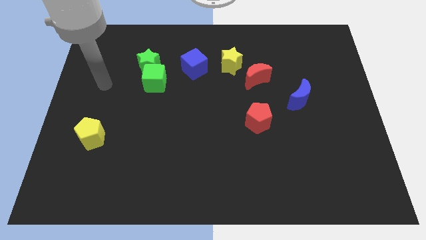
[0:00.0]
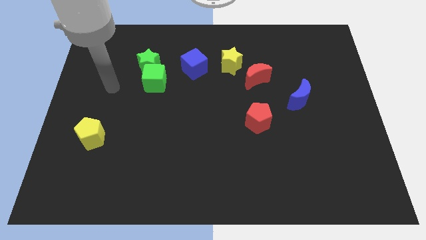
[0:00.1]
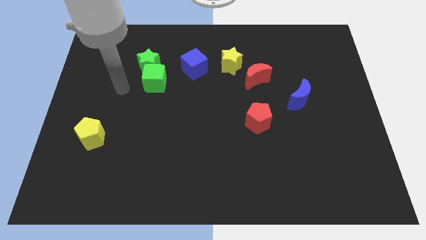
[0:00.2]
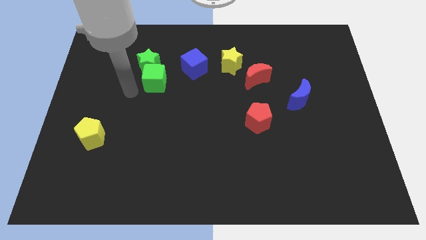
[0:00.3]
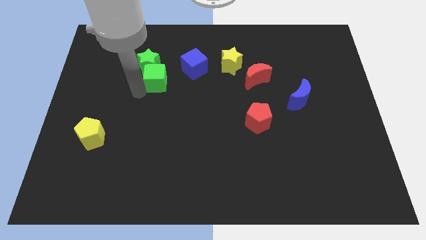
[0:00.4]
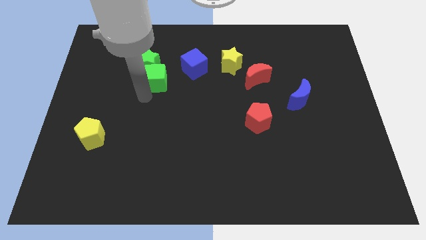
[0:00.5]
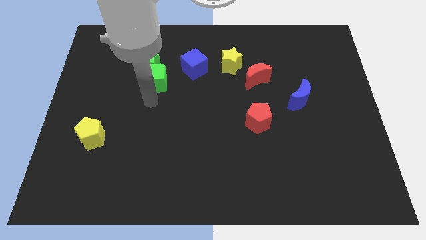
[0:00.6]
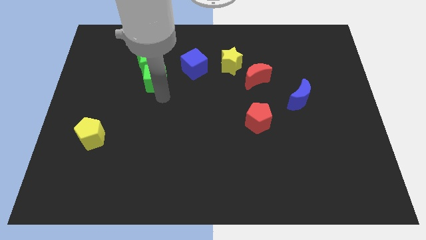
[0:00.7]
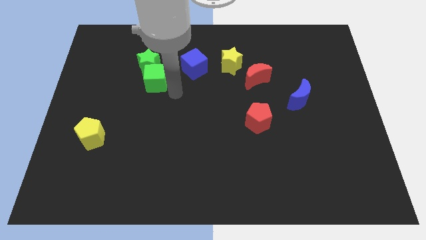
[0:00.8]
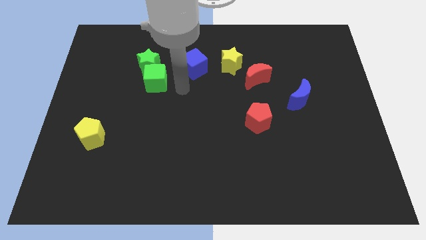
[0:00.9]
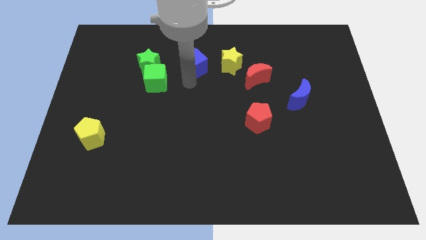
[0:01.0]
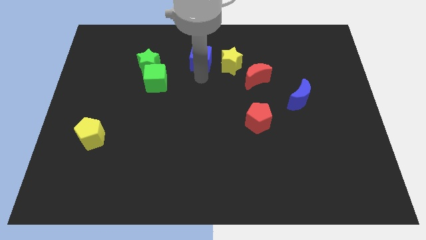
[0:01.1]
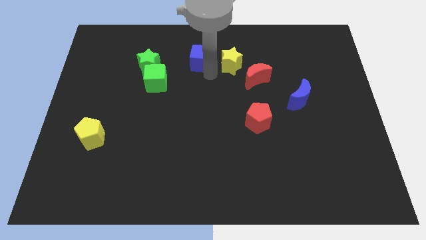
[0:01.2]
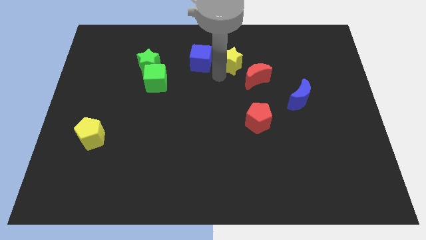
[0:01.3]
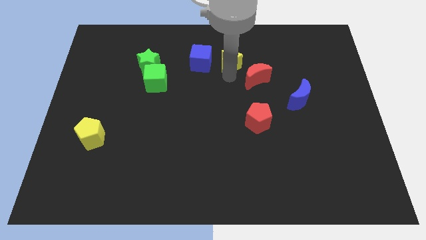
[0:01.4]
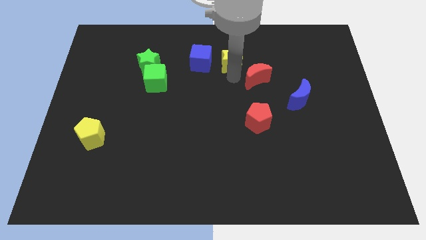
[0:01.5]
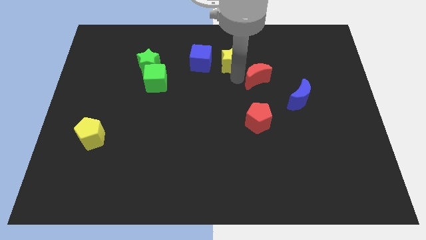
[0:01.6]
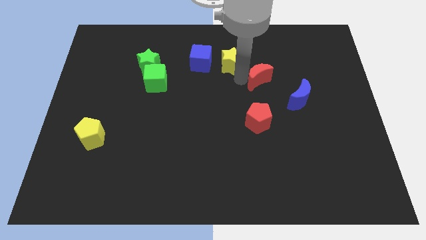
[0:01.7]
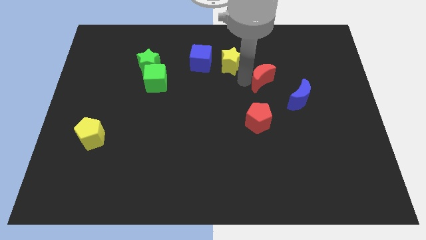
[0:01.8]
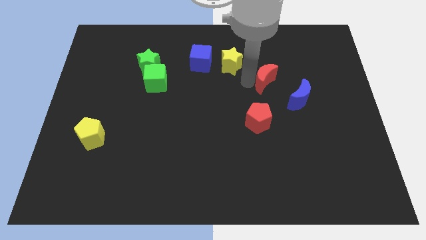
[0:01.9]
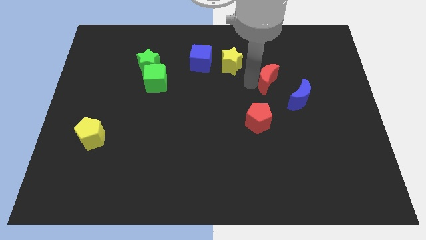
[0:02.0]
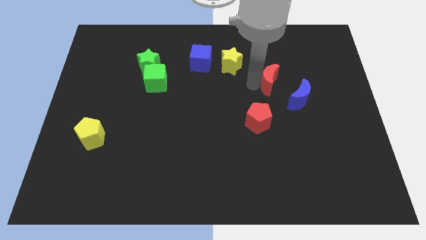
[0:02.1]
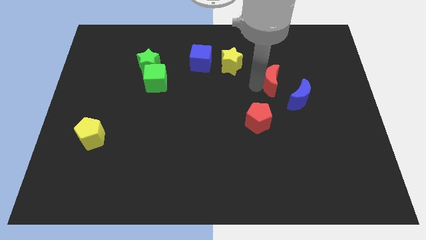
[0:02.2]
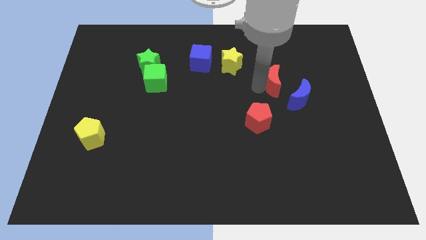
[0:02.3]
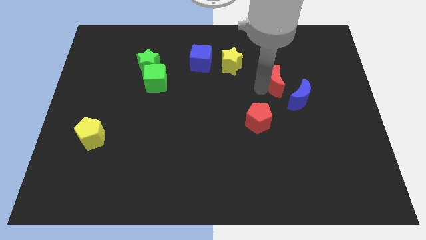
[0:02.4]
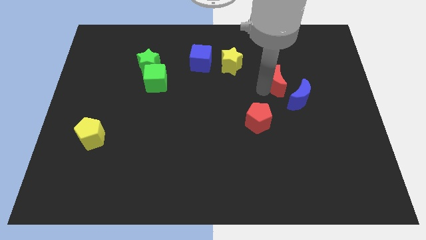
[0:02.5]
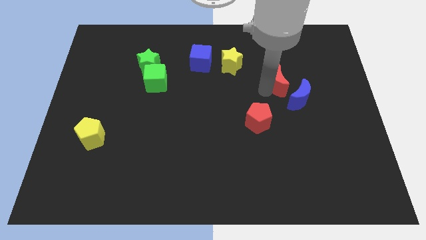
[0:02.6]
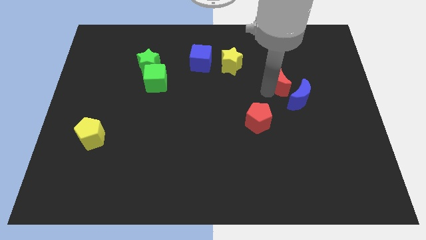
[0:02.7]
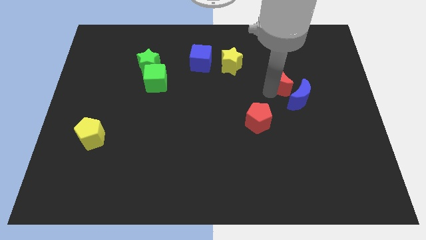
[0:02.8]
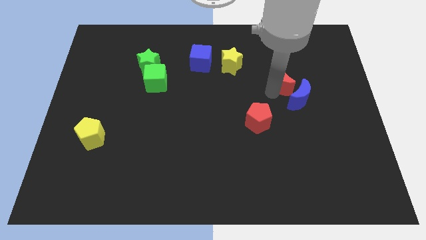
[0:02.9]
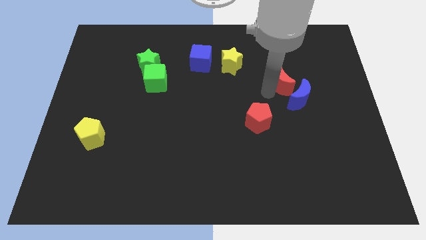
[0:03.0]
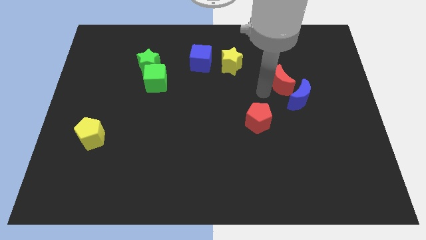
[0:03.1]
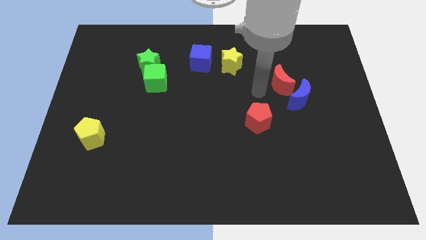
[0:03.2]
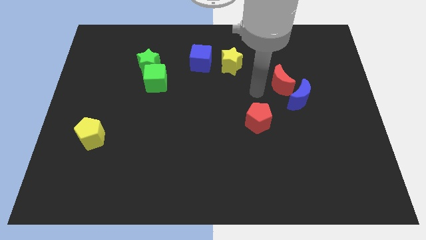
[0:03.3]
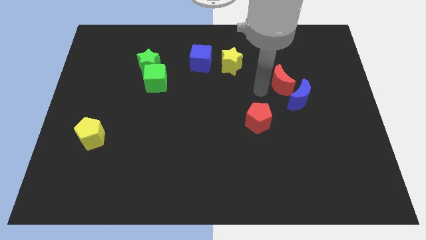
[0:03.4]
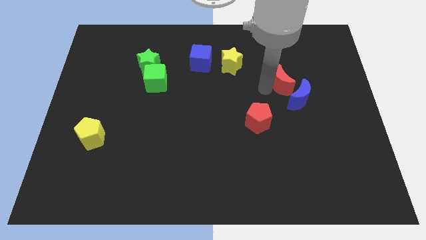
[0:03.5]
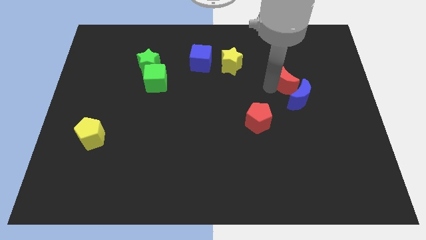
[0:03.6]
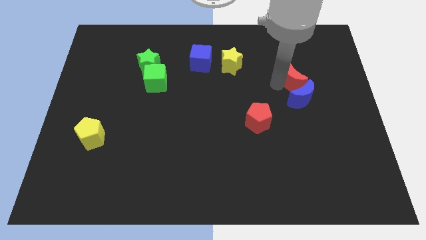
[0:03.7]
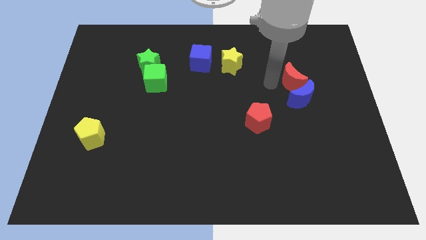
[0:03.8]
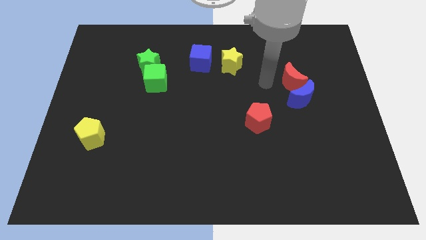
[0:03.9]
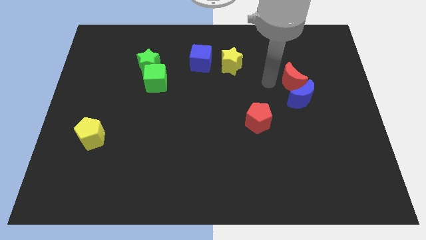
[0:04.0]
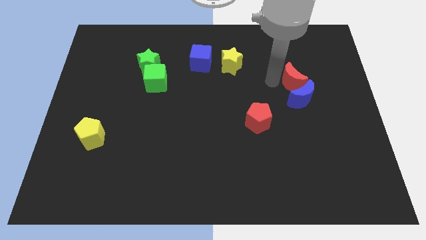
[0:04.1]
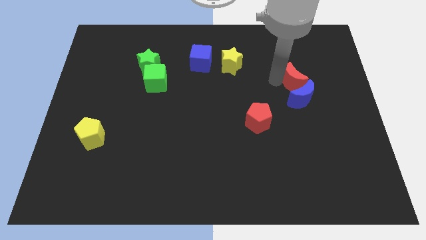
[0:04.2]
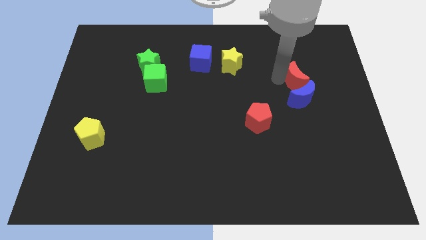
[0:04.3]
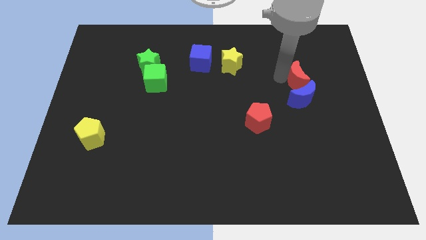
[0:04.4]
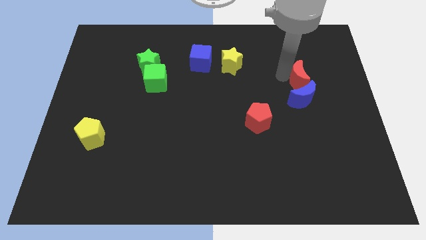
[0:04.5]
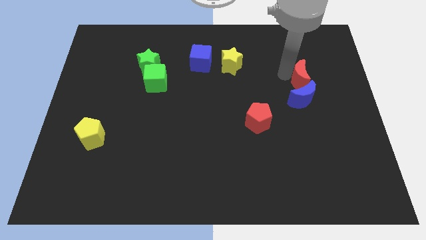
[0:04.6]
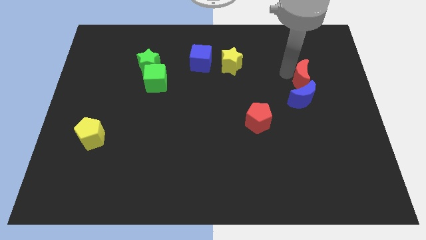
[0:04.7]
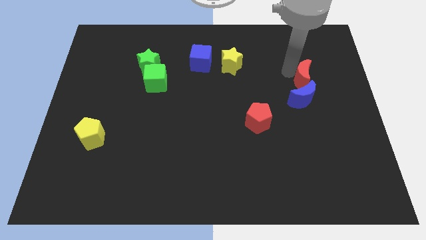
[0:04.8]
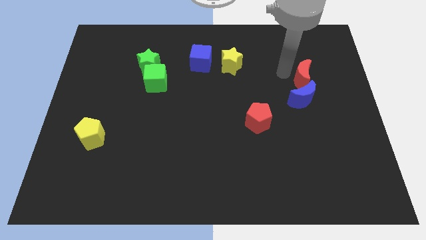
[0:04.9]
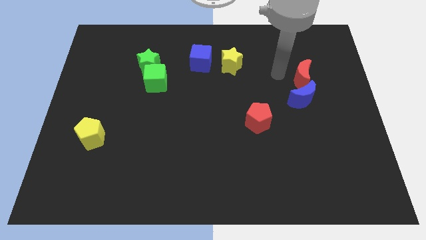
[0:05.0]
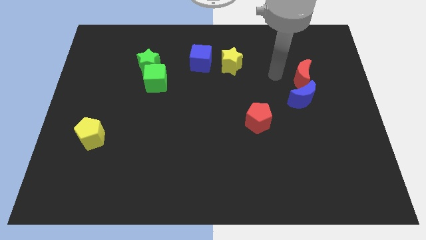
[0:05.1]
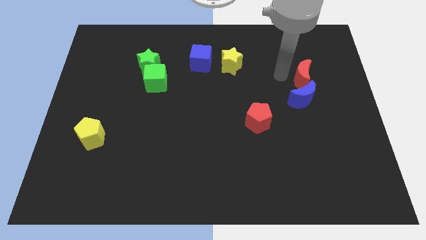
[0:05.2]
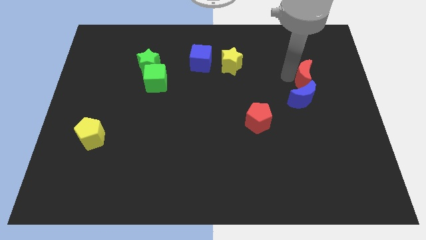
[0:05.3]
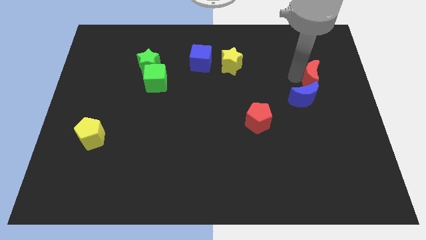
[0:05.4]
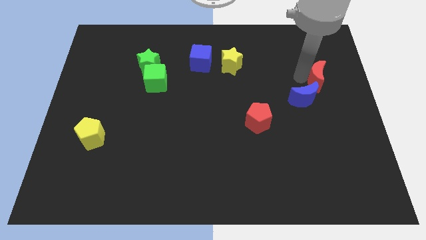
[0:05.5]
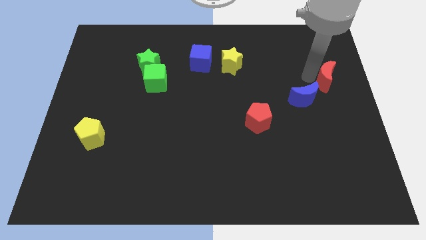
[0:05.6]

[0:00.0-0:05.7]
put the red moon to the right side

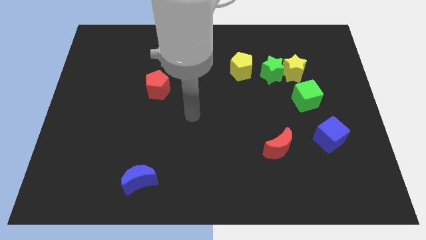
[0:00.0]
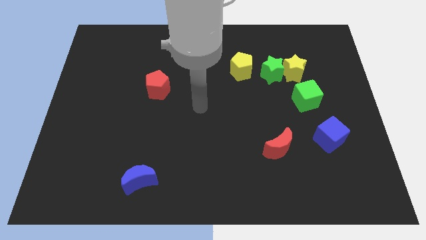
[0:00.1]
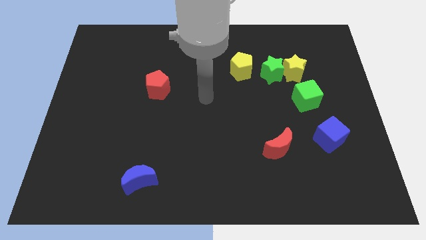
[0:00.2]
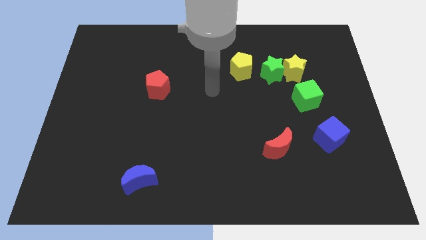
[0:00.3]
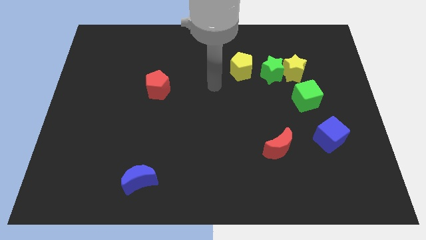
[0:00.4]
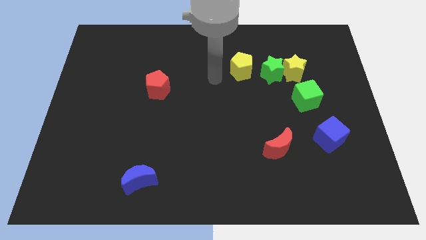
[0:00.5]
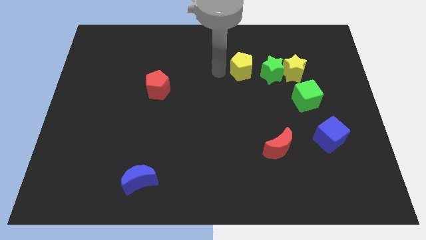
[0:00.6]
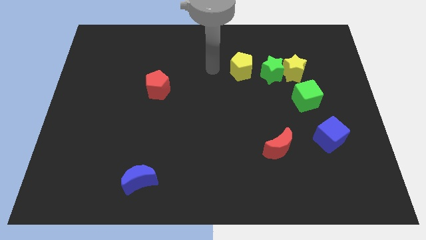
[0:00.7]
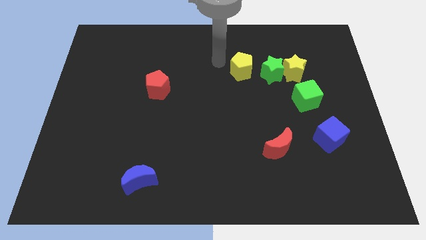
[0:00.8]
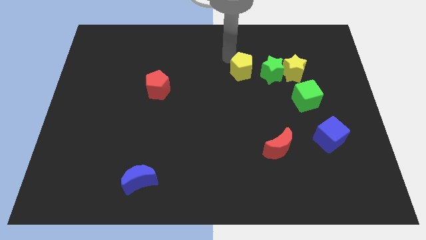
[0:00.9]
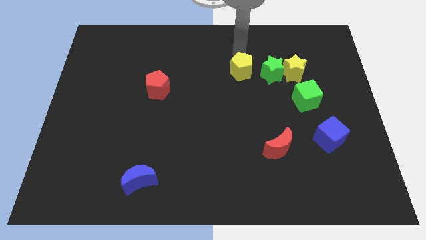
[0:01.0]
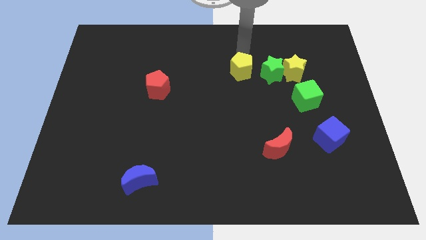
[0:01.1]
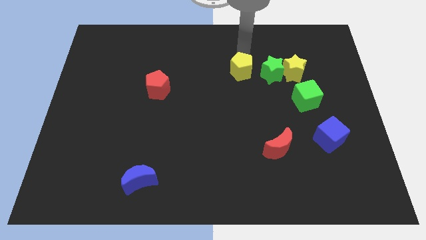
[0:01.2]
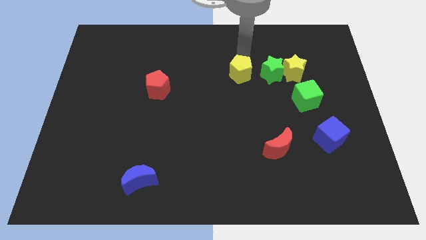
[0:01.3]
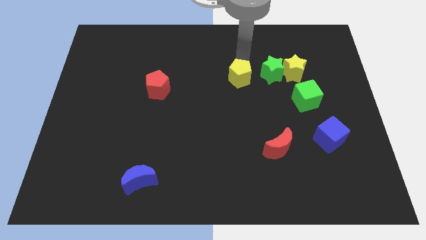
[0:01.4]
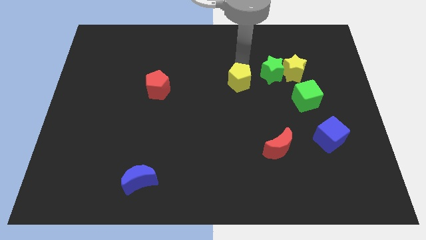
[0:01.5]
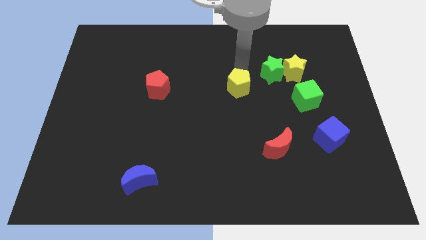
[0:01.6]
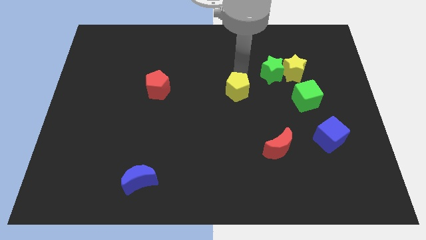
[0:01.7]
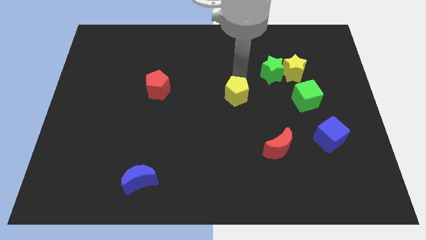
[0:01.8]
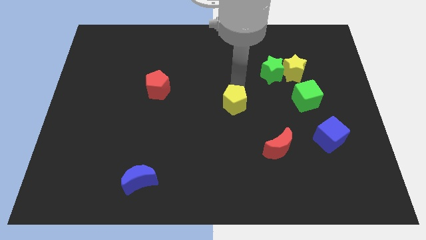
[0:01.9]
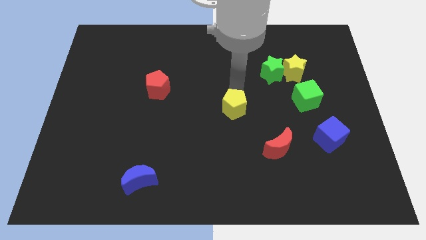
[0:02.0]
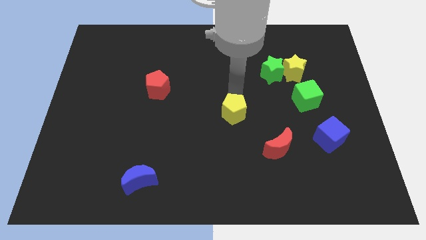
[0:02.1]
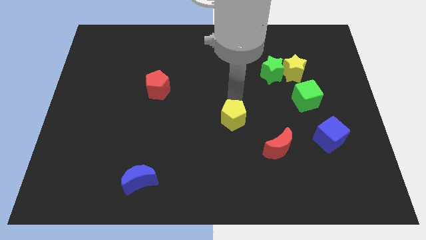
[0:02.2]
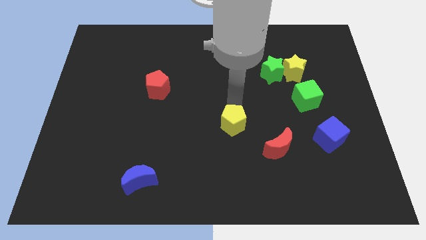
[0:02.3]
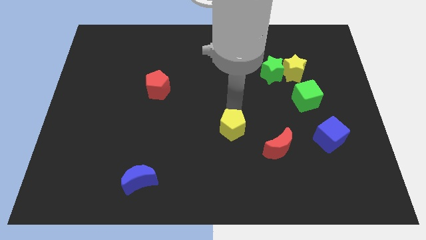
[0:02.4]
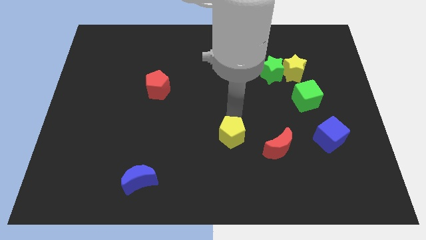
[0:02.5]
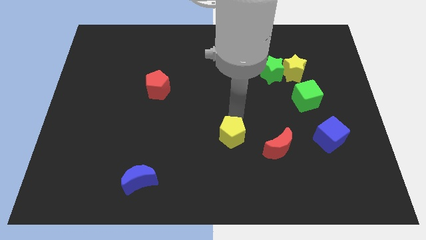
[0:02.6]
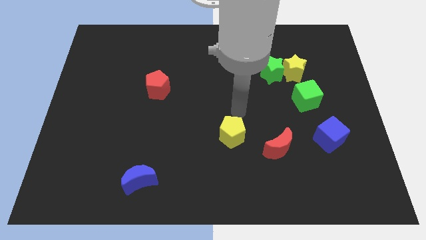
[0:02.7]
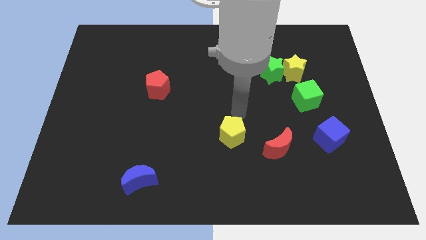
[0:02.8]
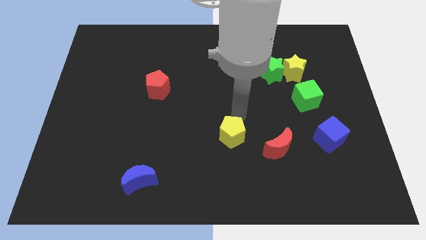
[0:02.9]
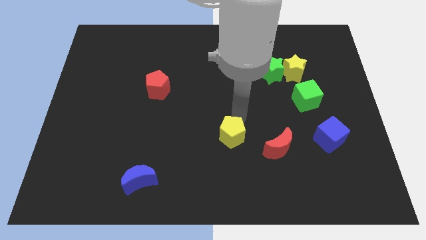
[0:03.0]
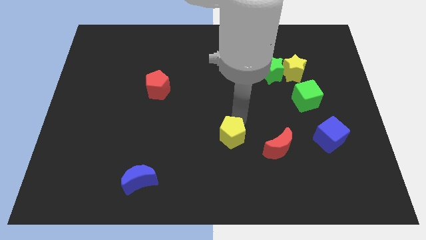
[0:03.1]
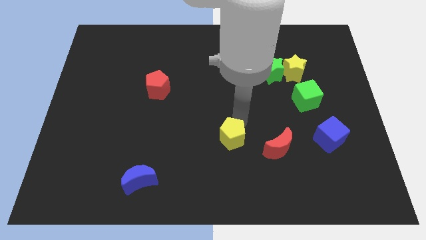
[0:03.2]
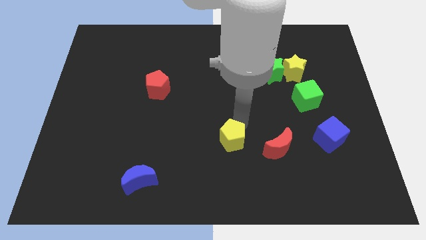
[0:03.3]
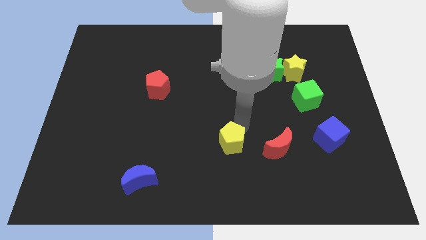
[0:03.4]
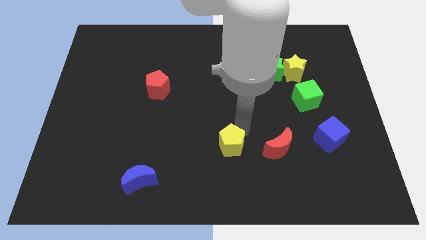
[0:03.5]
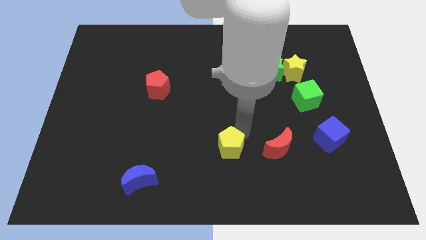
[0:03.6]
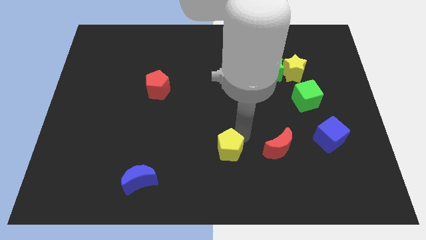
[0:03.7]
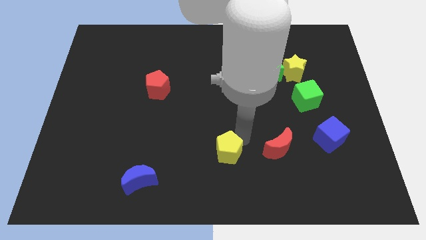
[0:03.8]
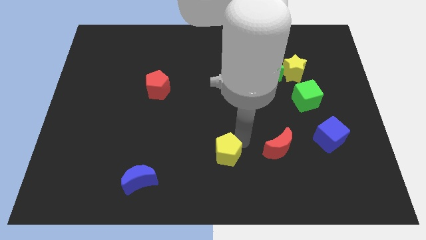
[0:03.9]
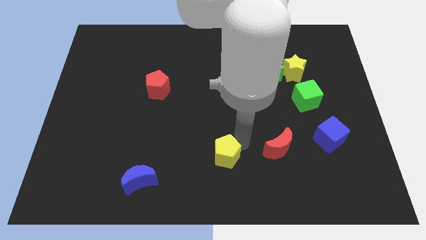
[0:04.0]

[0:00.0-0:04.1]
push the yellow pentagon to the bottom side
